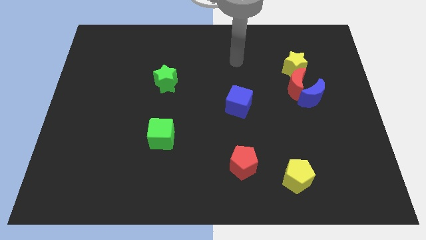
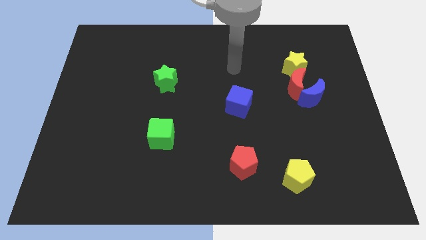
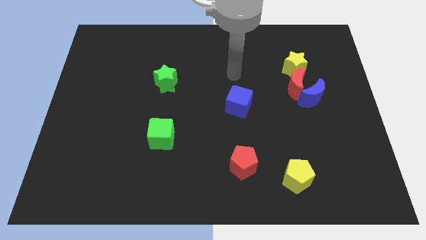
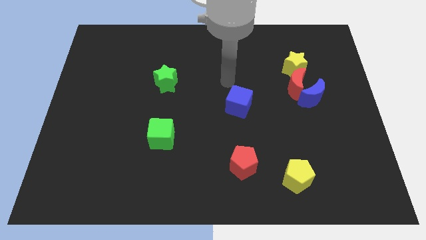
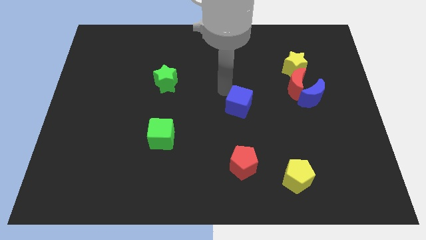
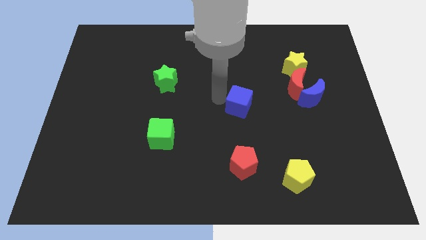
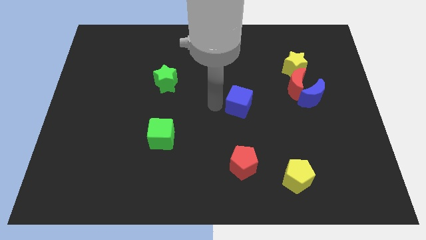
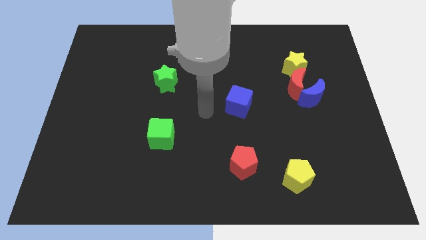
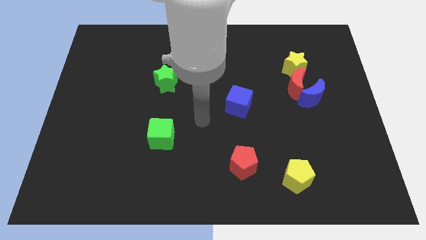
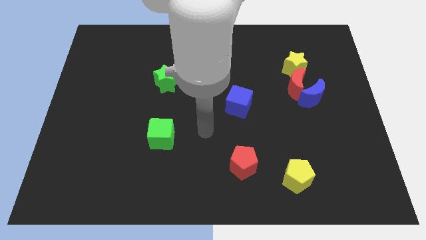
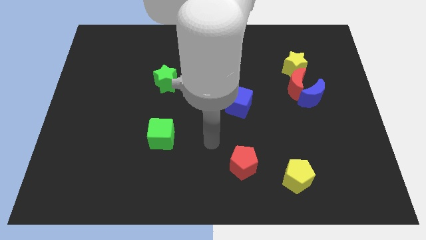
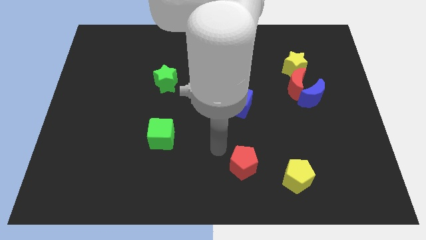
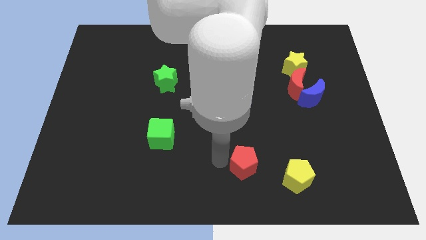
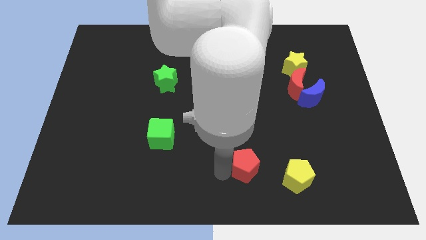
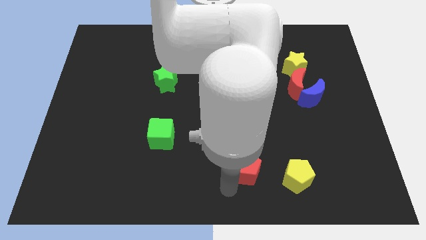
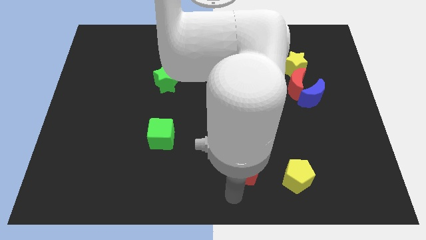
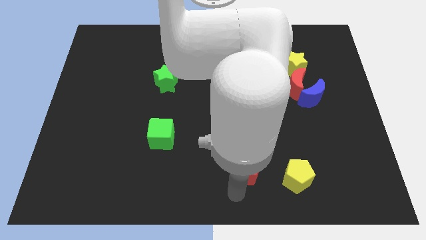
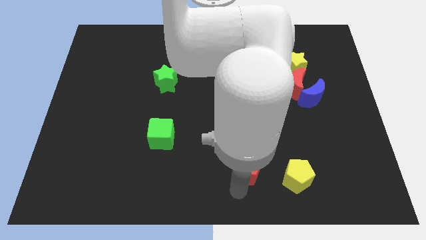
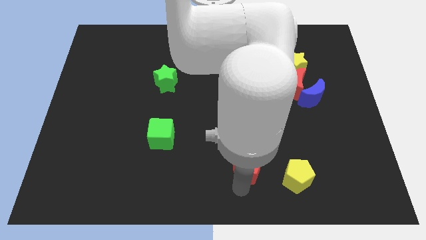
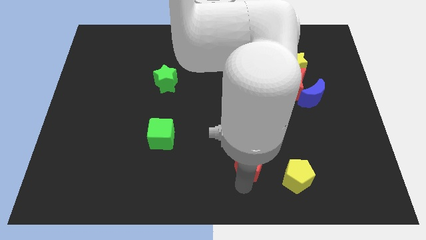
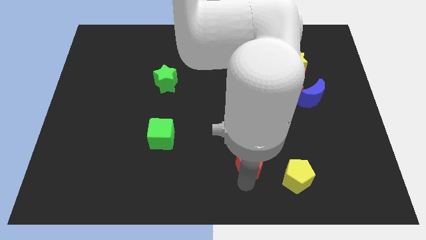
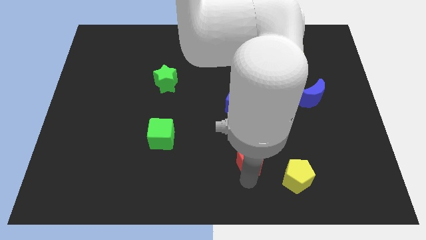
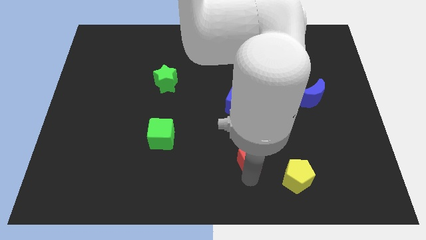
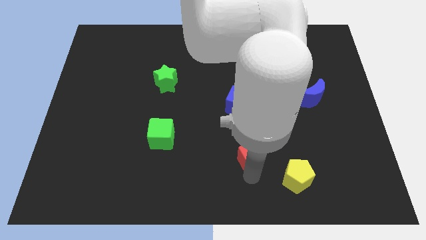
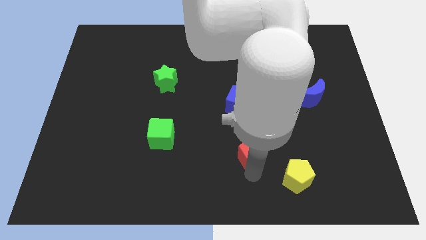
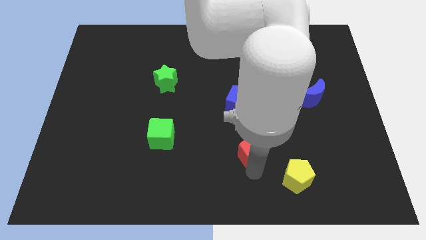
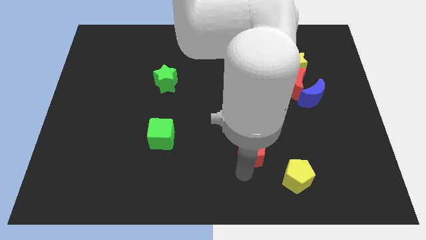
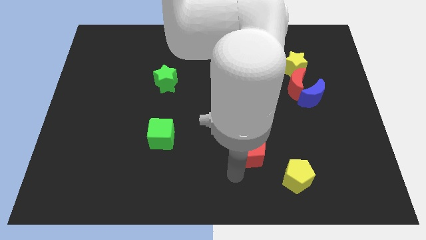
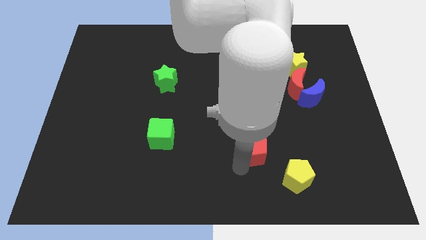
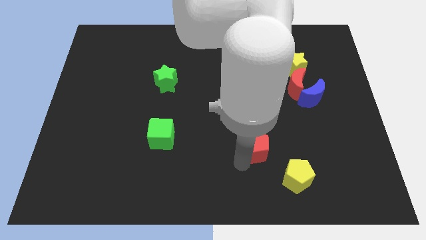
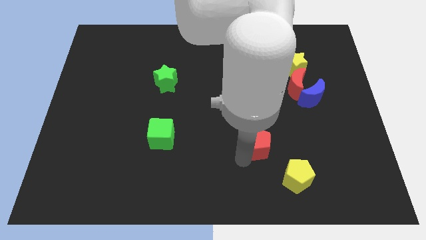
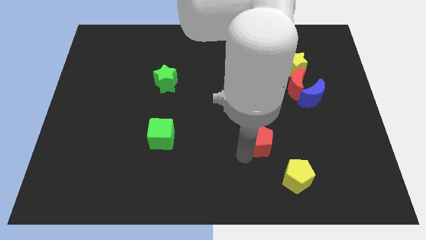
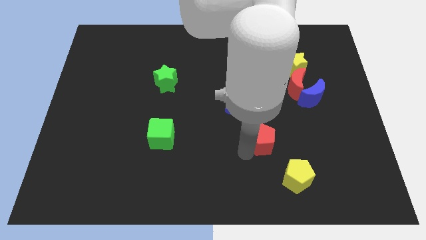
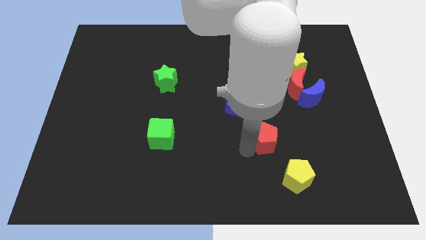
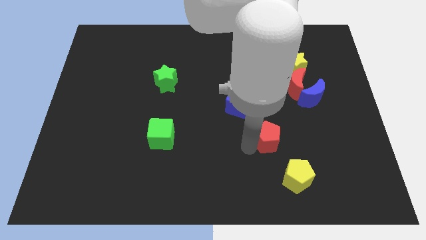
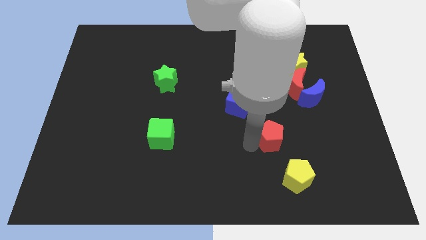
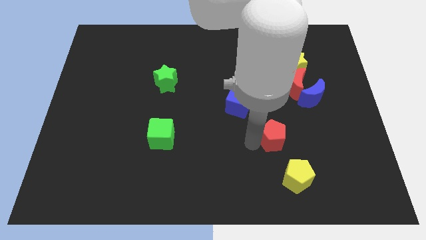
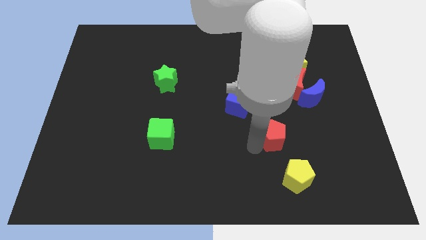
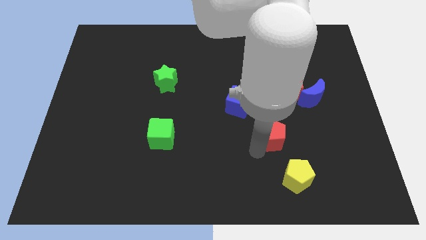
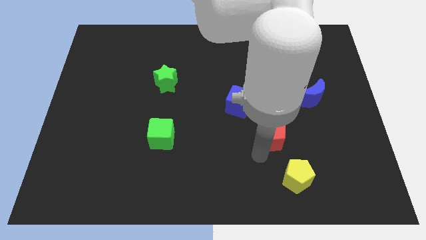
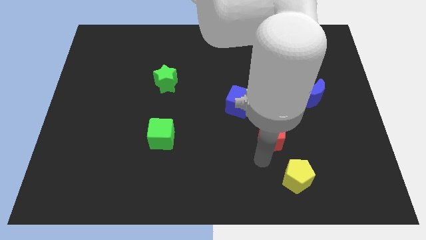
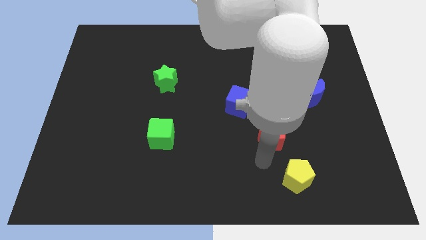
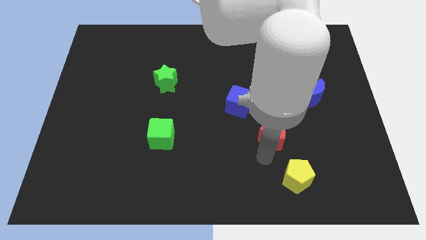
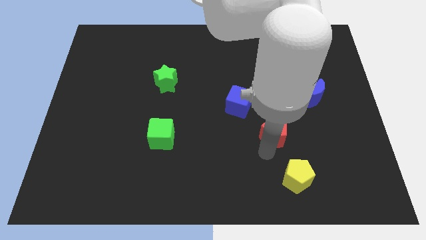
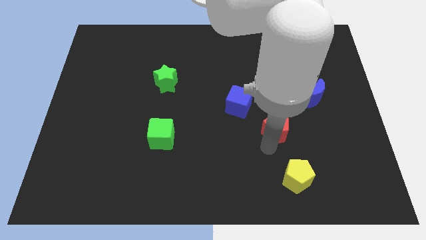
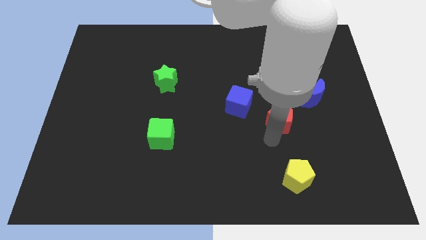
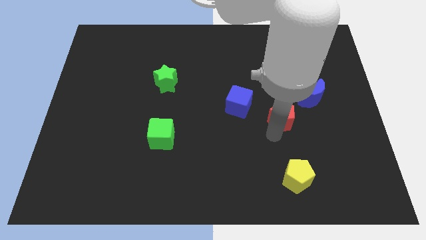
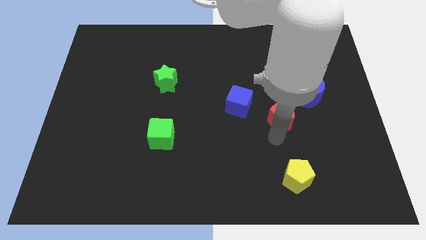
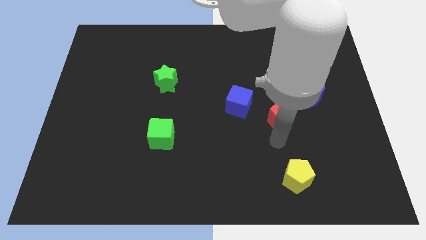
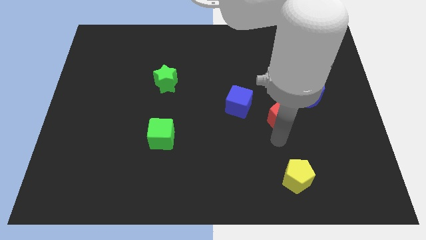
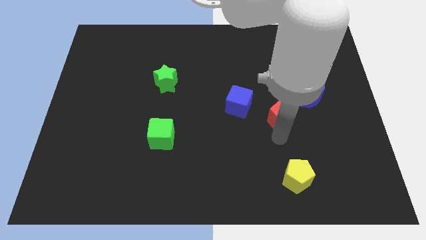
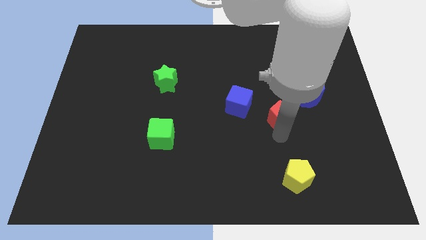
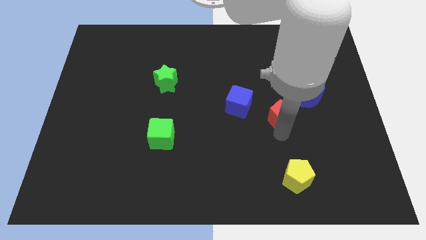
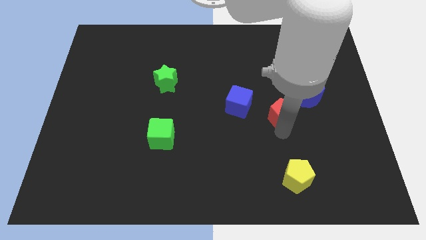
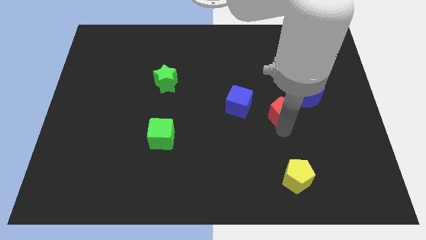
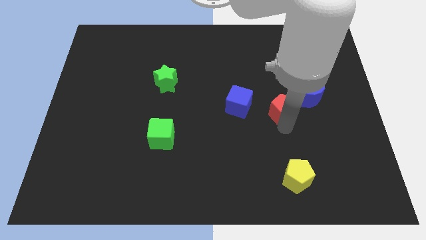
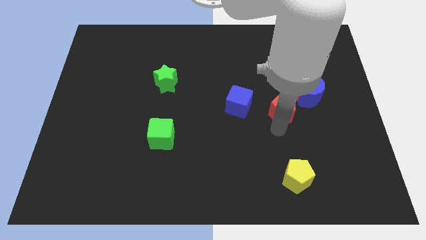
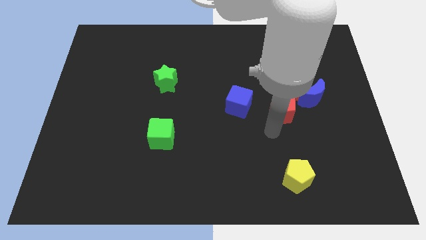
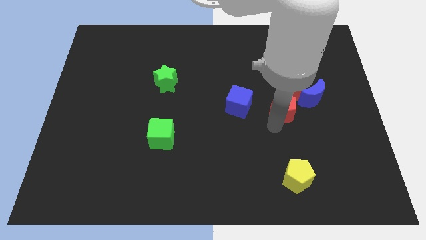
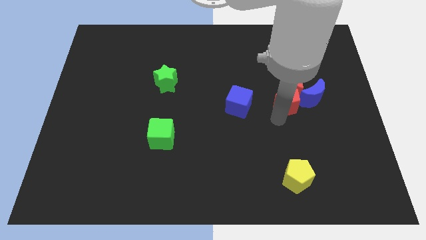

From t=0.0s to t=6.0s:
push the red pentagon to the red moon
